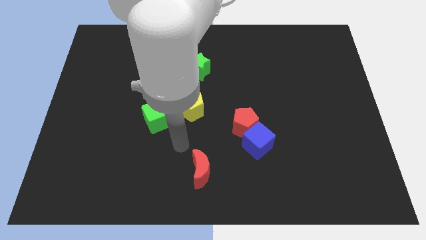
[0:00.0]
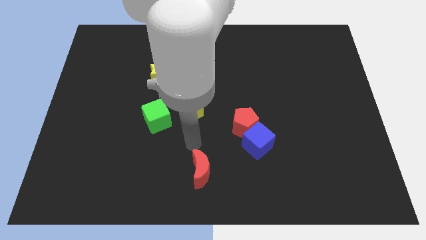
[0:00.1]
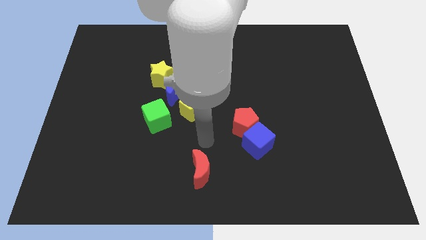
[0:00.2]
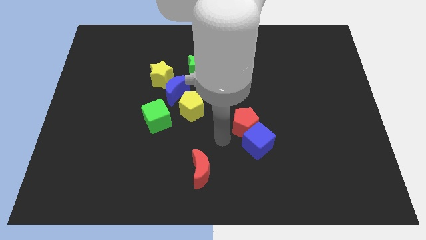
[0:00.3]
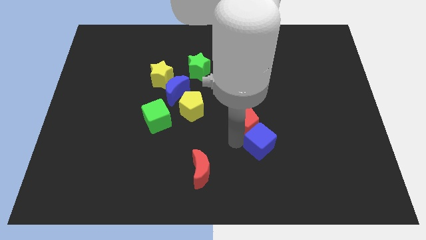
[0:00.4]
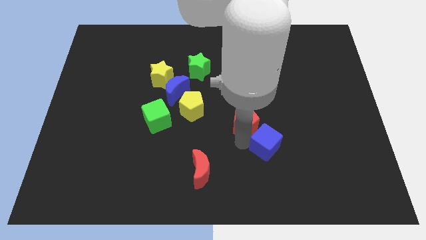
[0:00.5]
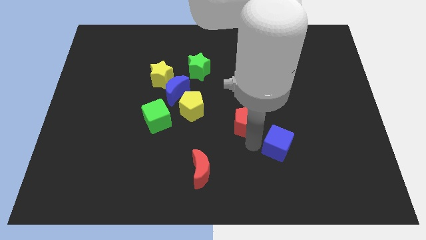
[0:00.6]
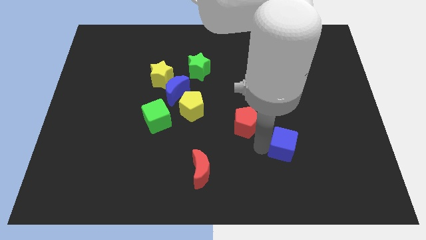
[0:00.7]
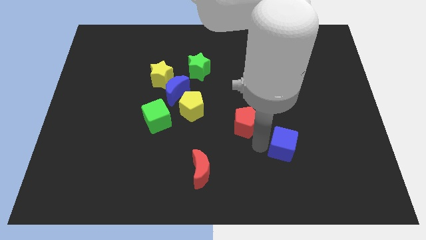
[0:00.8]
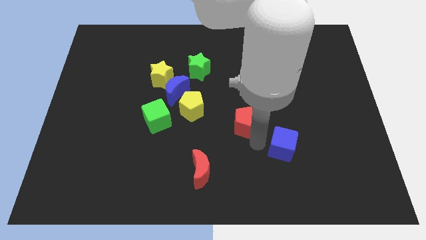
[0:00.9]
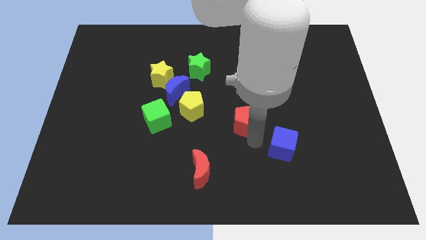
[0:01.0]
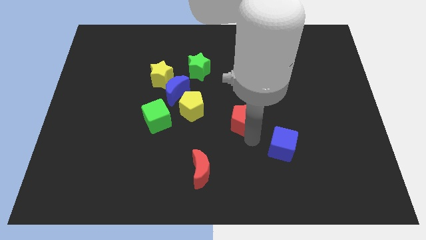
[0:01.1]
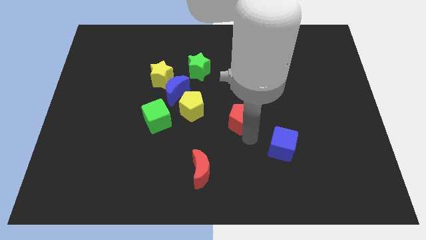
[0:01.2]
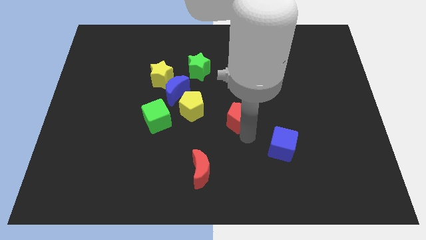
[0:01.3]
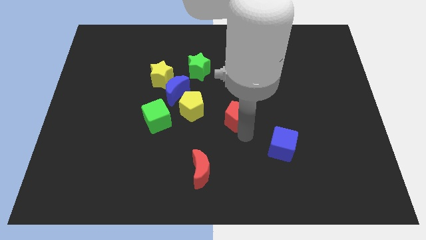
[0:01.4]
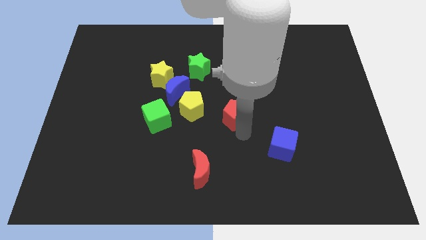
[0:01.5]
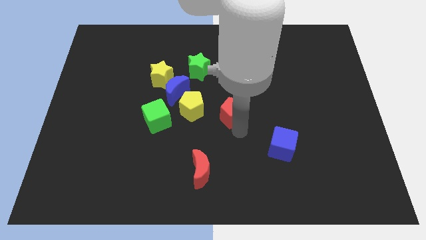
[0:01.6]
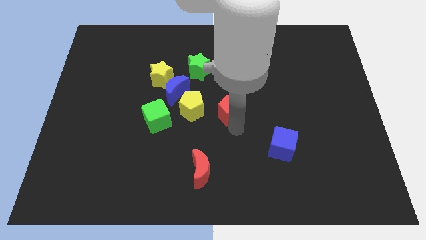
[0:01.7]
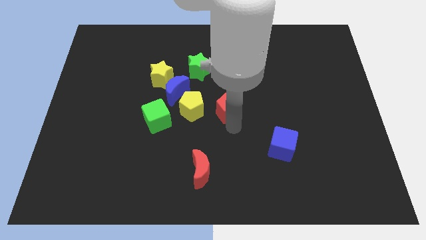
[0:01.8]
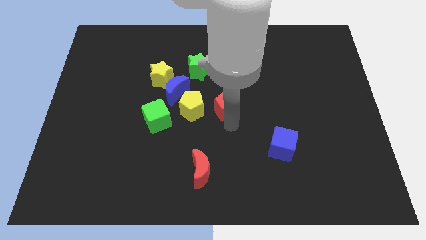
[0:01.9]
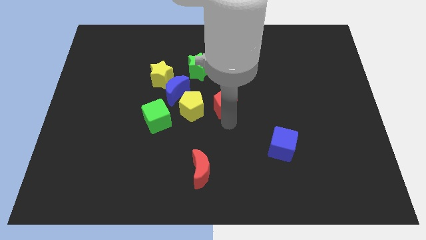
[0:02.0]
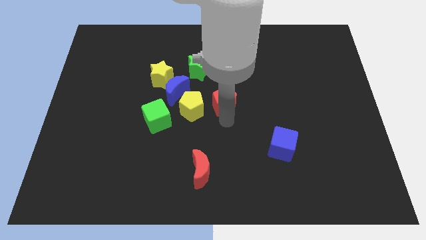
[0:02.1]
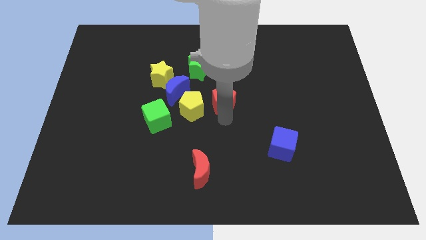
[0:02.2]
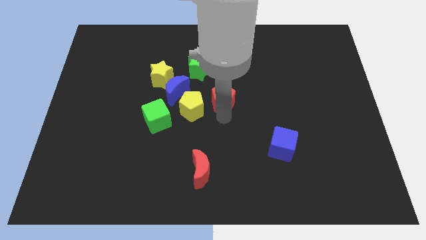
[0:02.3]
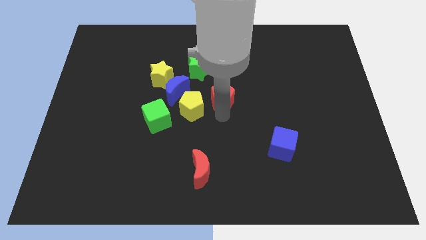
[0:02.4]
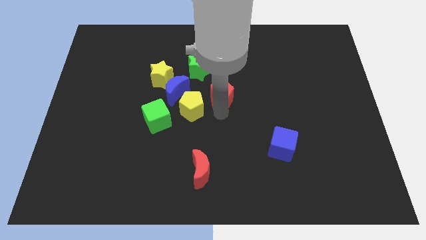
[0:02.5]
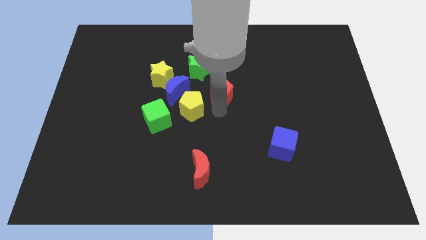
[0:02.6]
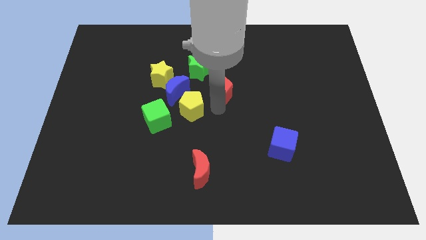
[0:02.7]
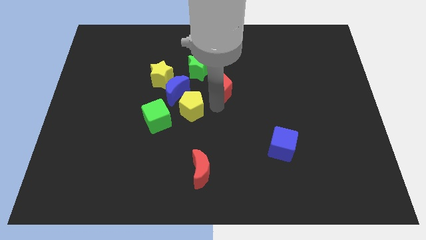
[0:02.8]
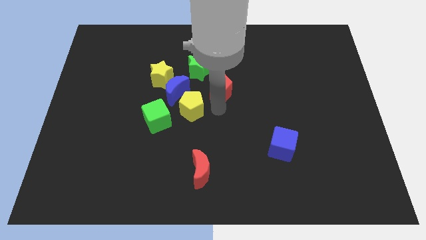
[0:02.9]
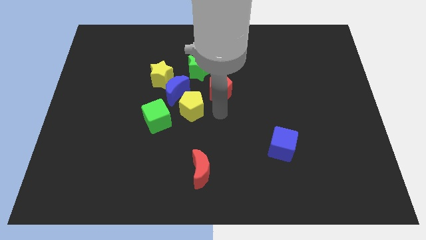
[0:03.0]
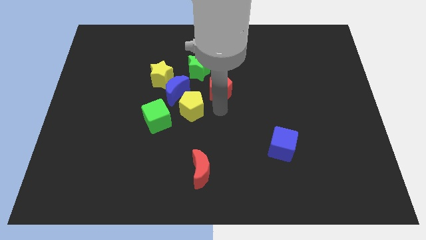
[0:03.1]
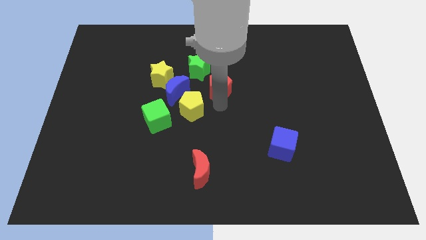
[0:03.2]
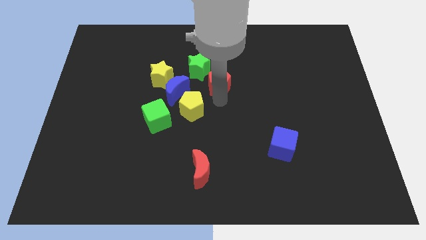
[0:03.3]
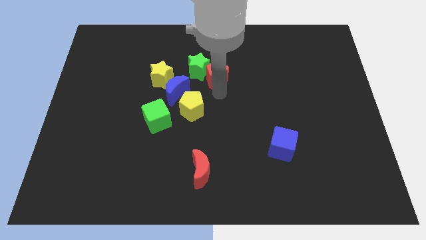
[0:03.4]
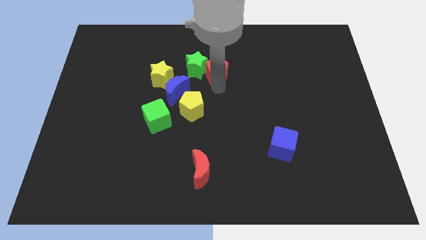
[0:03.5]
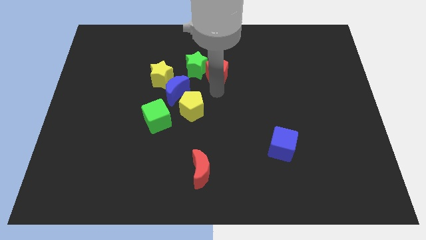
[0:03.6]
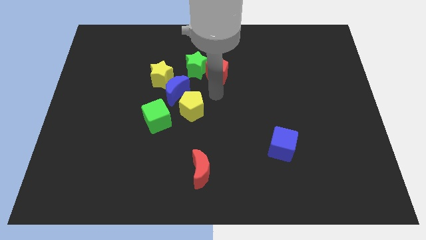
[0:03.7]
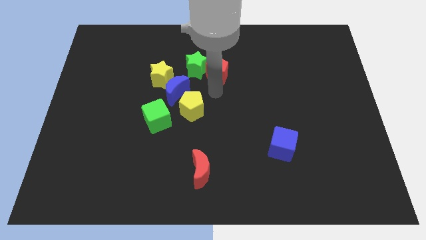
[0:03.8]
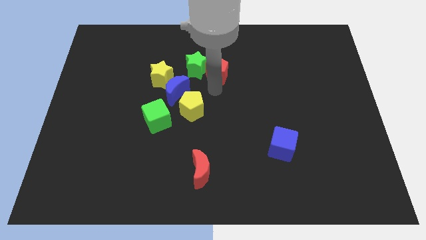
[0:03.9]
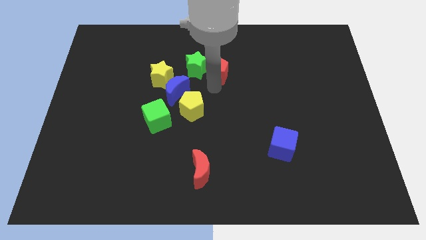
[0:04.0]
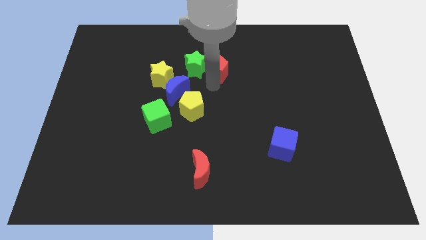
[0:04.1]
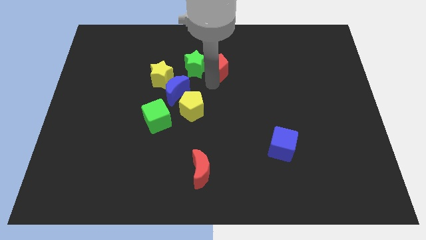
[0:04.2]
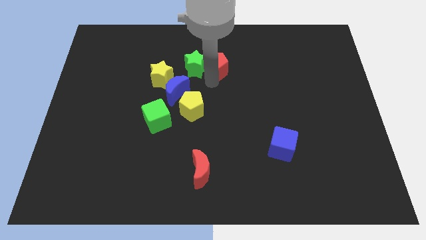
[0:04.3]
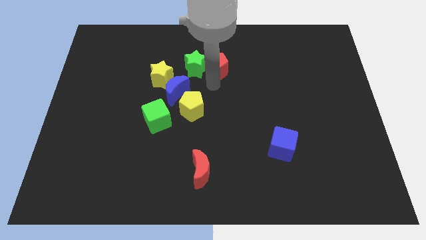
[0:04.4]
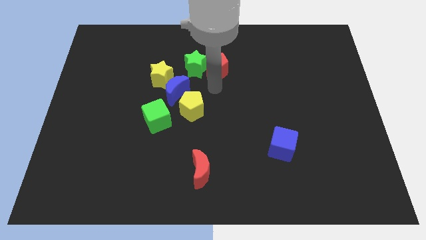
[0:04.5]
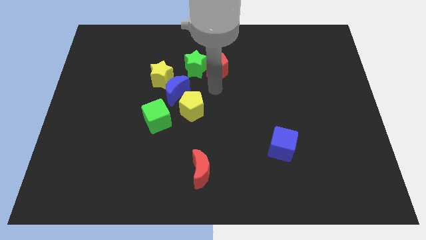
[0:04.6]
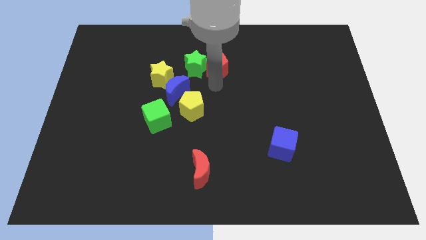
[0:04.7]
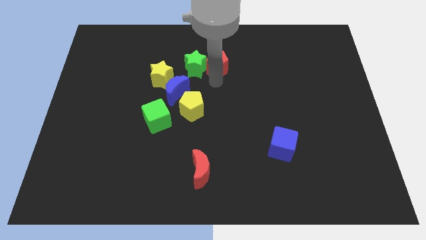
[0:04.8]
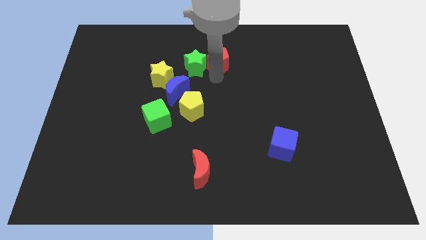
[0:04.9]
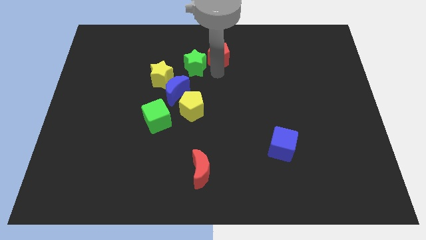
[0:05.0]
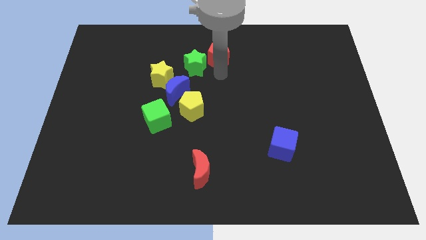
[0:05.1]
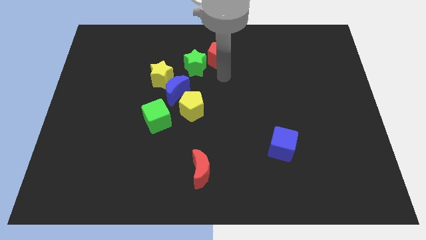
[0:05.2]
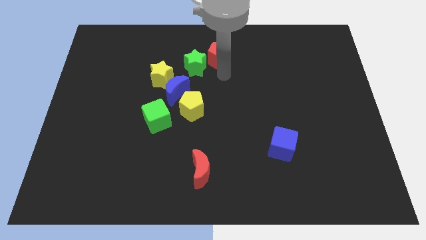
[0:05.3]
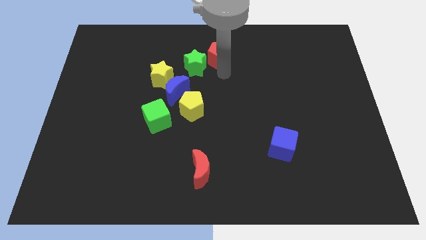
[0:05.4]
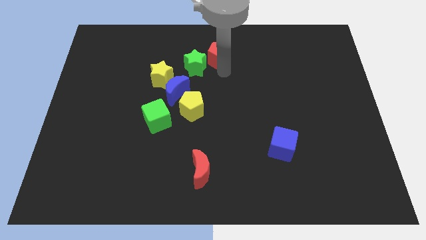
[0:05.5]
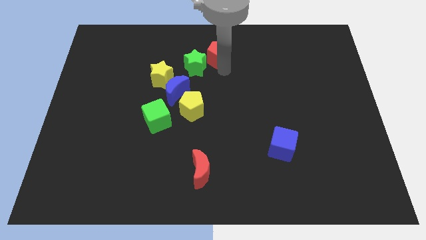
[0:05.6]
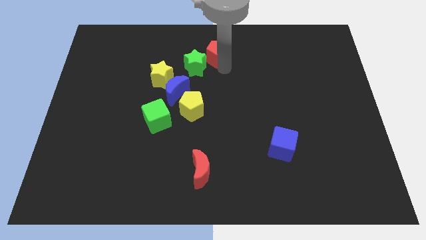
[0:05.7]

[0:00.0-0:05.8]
push the red pentagon to the top side

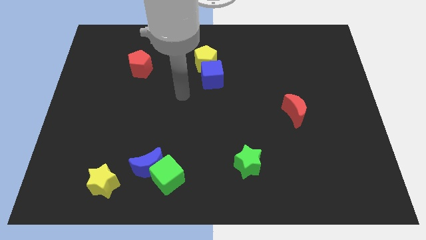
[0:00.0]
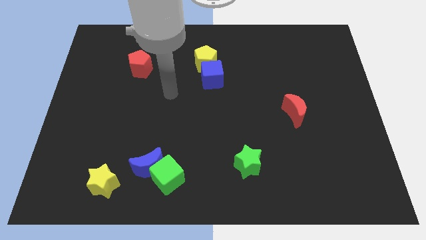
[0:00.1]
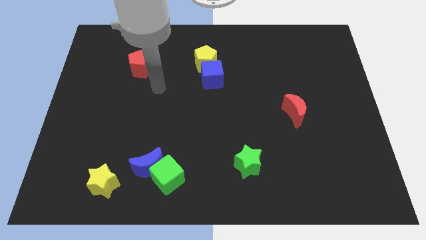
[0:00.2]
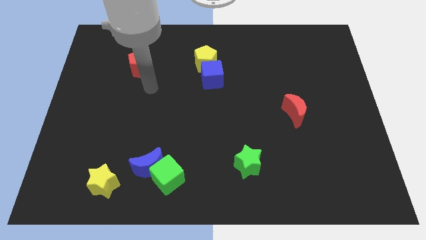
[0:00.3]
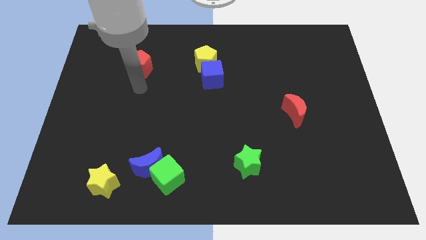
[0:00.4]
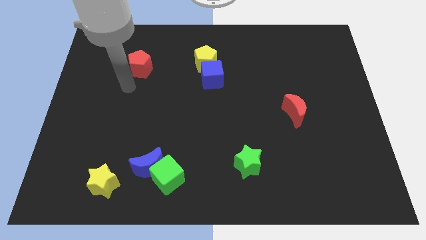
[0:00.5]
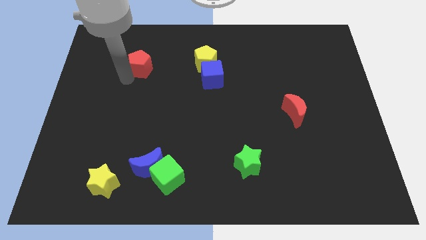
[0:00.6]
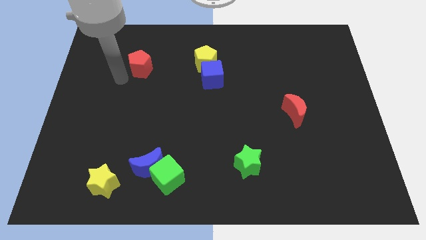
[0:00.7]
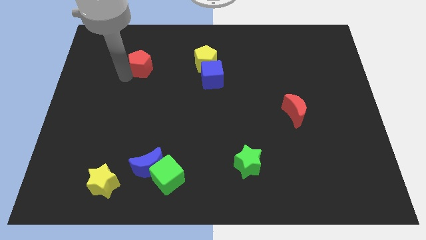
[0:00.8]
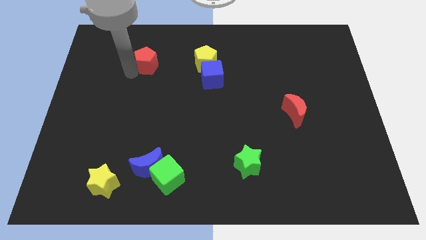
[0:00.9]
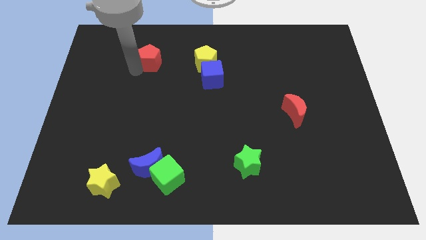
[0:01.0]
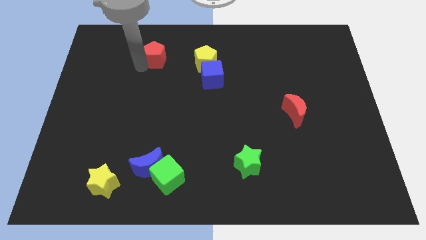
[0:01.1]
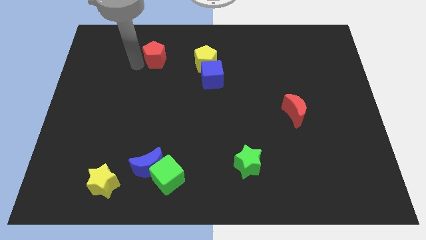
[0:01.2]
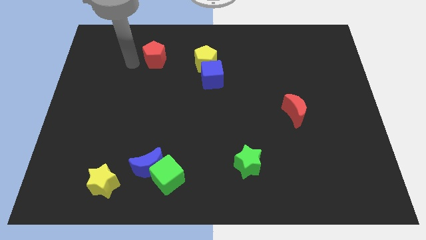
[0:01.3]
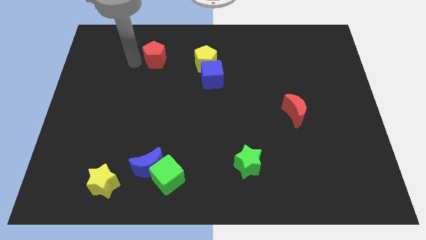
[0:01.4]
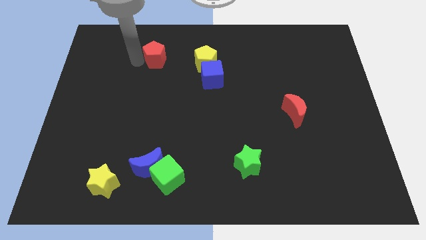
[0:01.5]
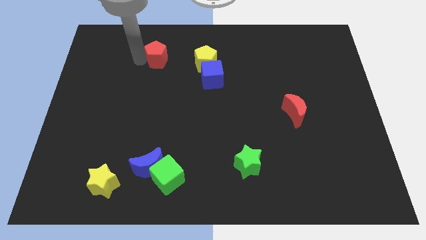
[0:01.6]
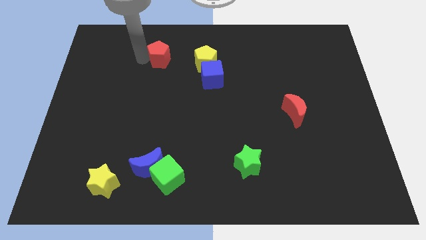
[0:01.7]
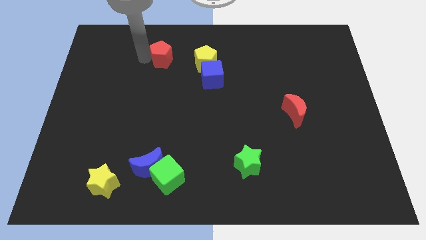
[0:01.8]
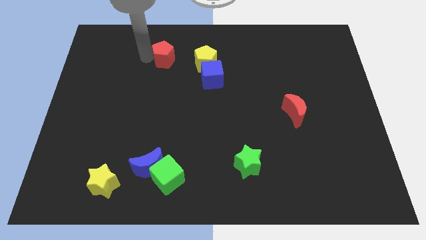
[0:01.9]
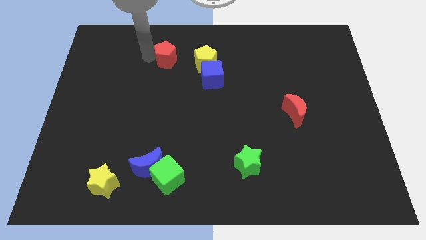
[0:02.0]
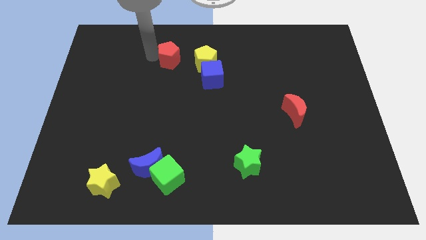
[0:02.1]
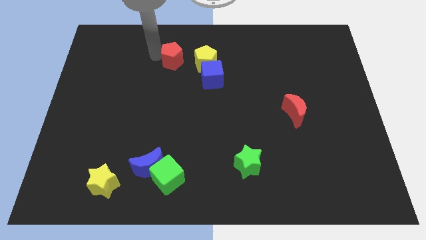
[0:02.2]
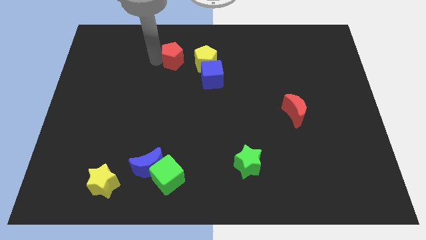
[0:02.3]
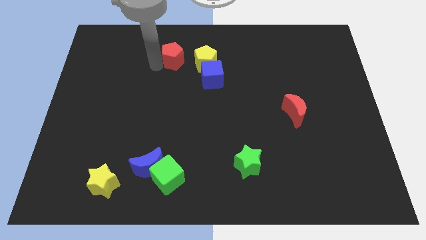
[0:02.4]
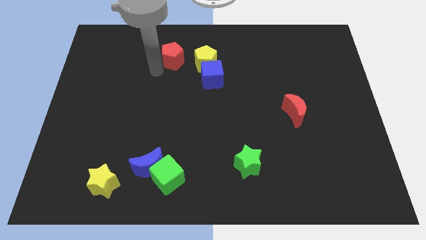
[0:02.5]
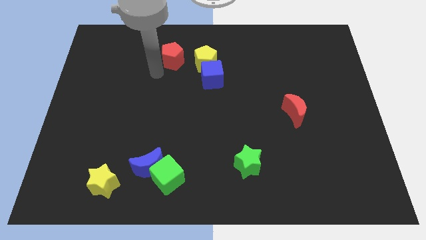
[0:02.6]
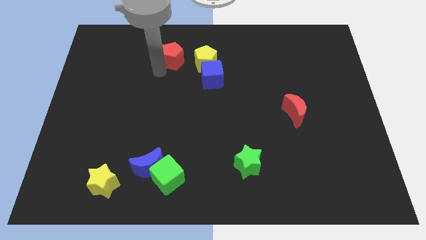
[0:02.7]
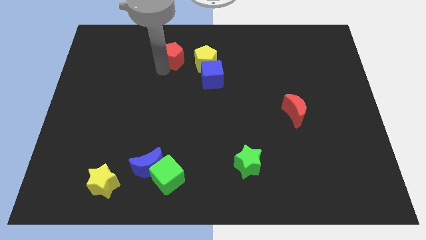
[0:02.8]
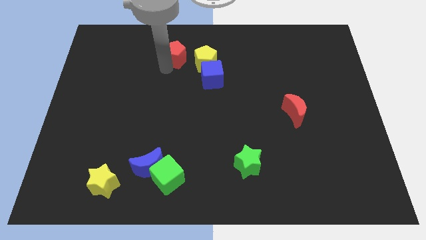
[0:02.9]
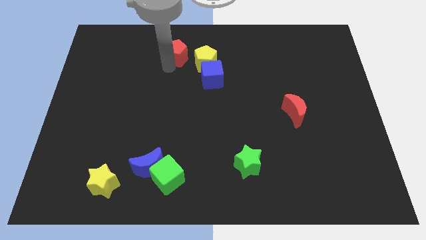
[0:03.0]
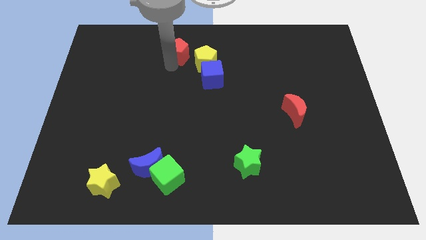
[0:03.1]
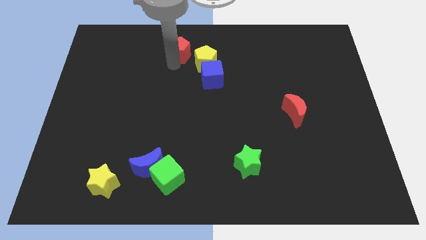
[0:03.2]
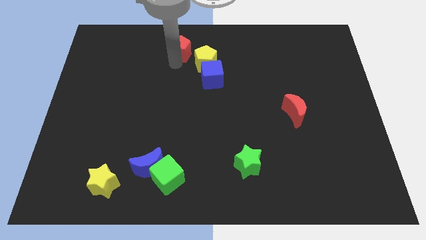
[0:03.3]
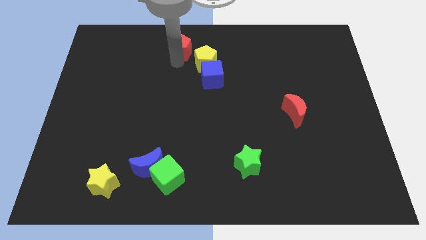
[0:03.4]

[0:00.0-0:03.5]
slide the red pentagon to the top side
